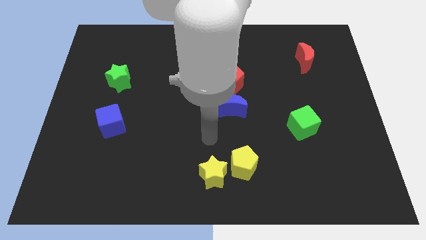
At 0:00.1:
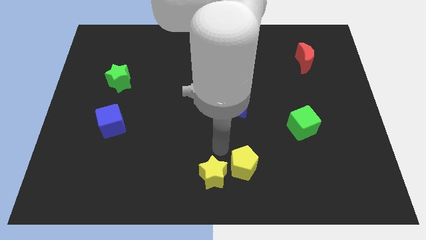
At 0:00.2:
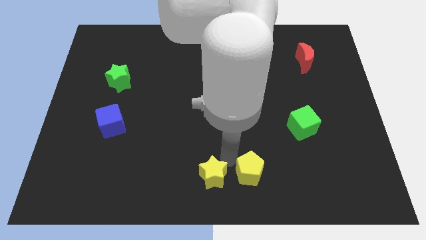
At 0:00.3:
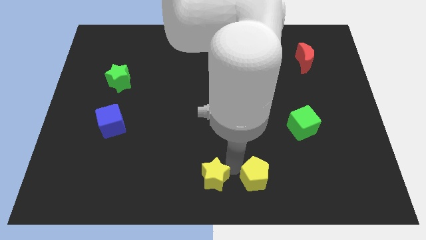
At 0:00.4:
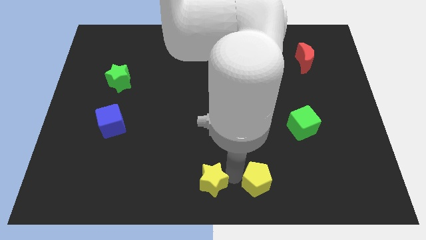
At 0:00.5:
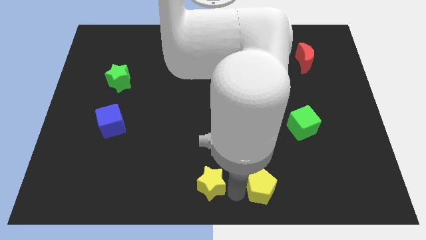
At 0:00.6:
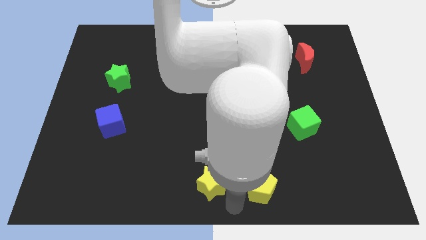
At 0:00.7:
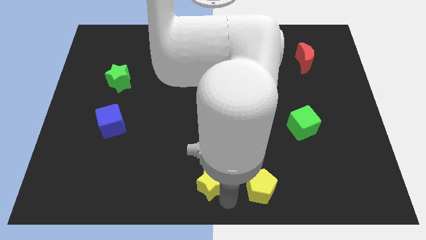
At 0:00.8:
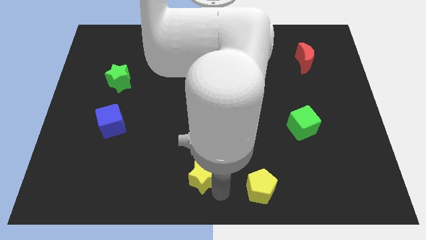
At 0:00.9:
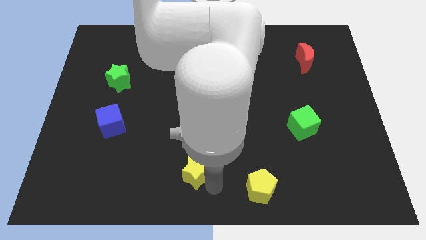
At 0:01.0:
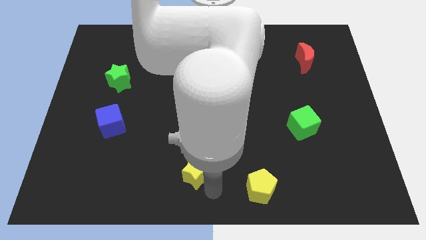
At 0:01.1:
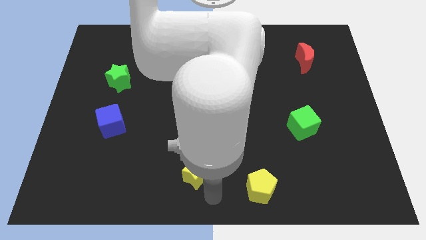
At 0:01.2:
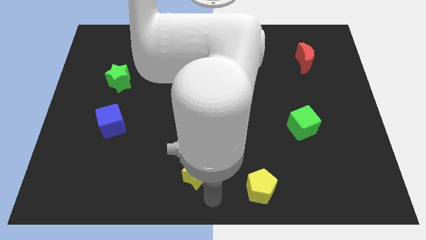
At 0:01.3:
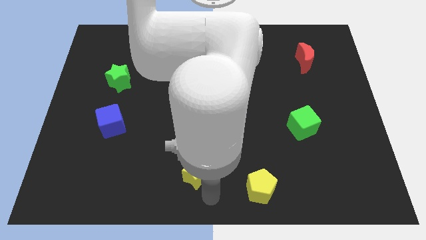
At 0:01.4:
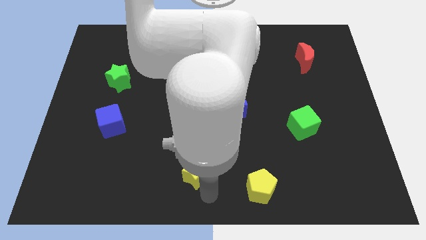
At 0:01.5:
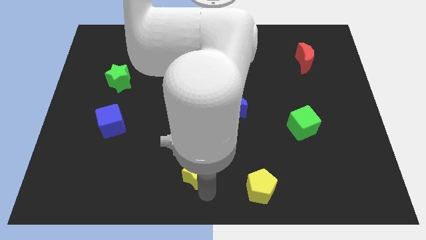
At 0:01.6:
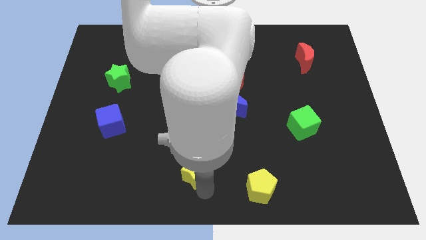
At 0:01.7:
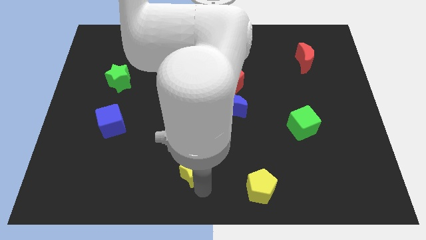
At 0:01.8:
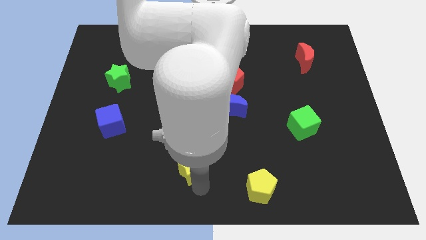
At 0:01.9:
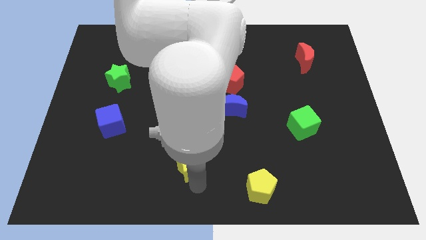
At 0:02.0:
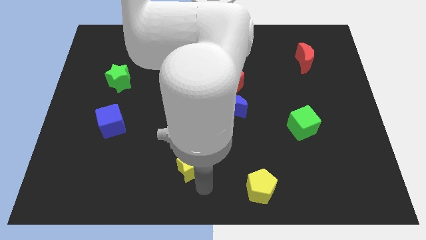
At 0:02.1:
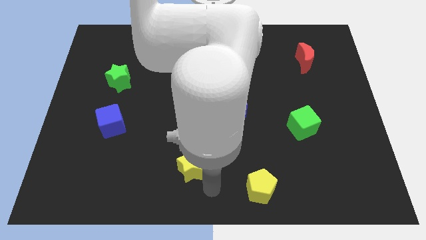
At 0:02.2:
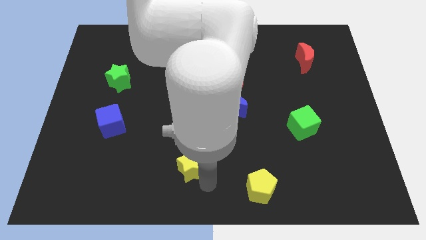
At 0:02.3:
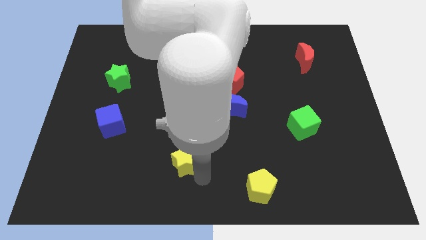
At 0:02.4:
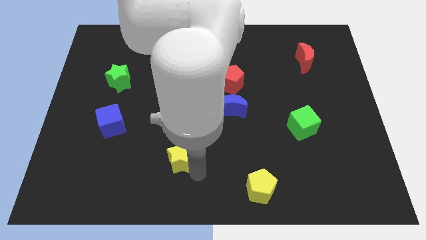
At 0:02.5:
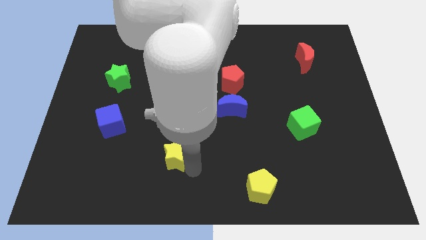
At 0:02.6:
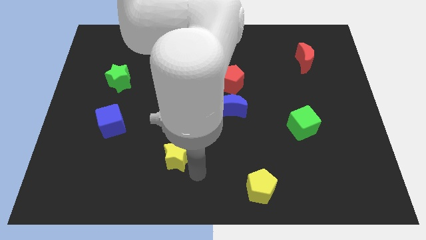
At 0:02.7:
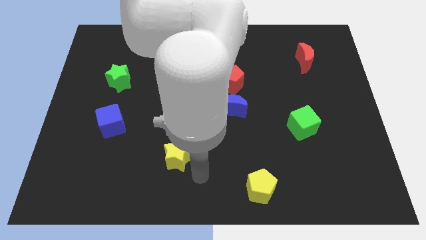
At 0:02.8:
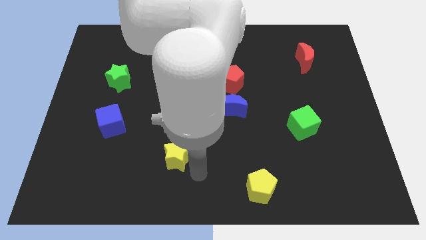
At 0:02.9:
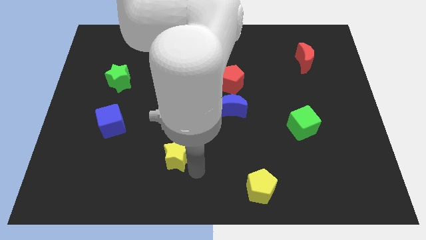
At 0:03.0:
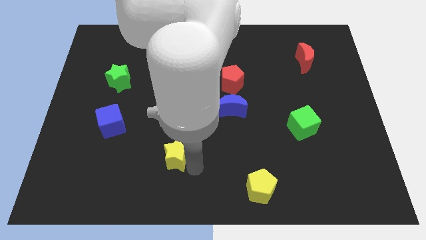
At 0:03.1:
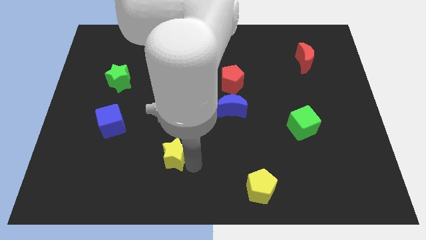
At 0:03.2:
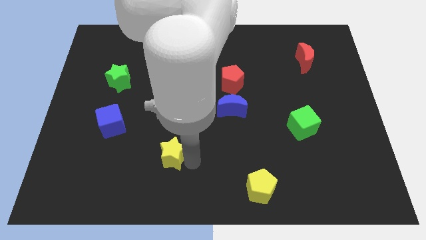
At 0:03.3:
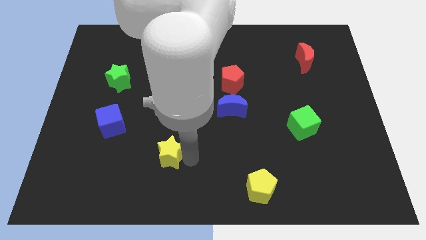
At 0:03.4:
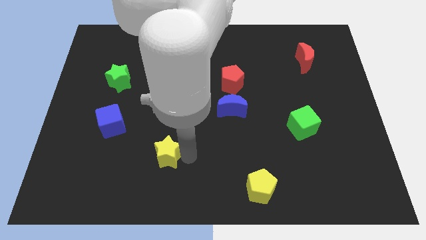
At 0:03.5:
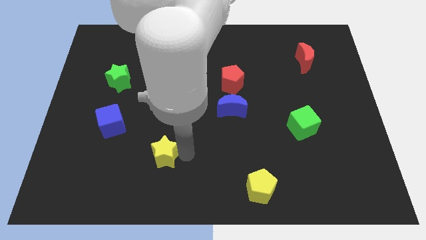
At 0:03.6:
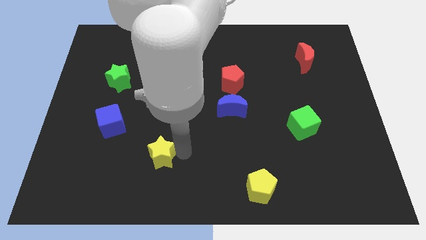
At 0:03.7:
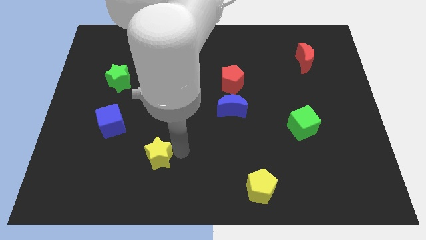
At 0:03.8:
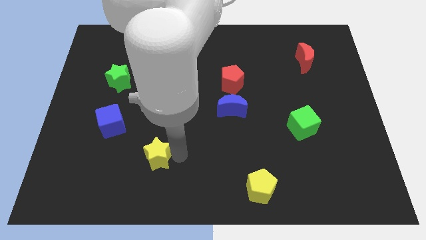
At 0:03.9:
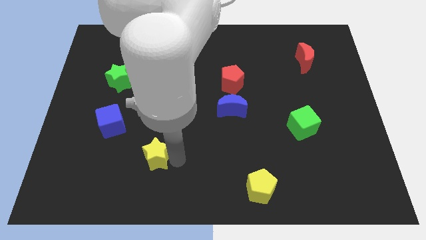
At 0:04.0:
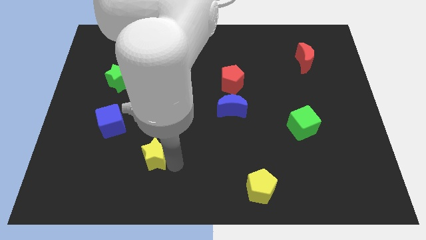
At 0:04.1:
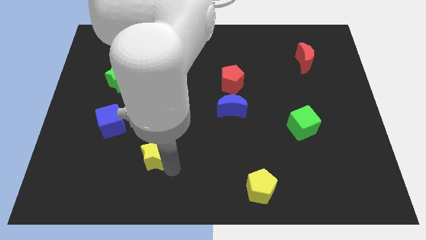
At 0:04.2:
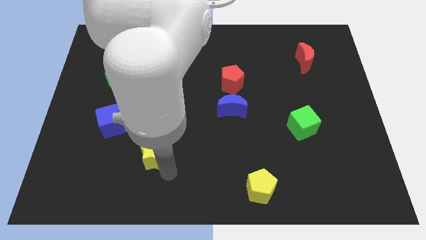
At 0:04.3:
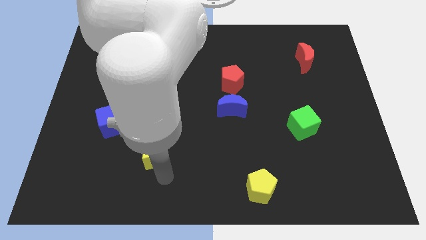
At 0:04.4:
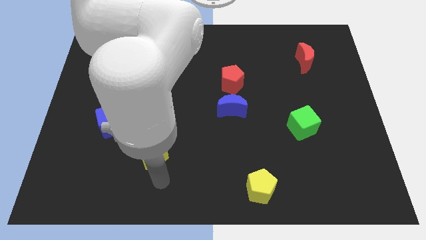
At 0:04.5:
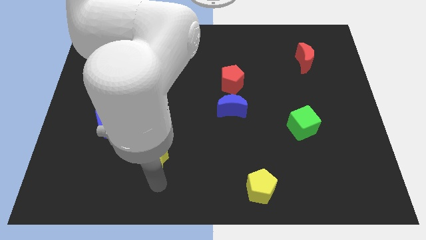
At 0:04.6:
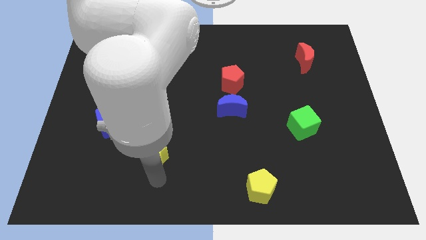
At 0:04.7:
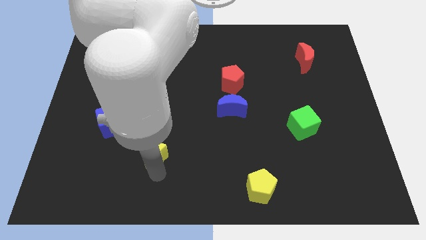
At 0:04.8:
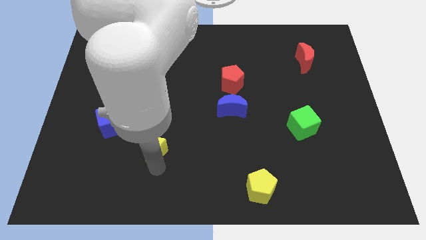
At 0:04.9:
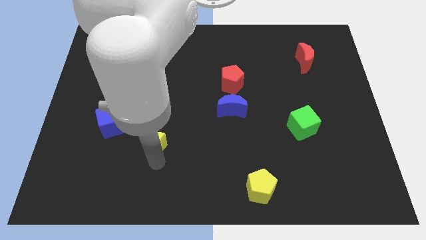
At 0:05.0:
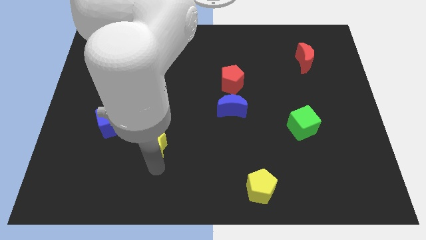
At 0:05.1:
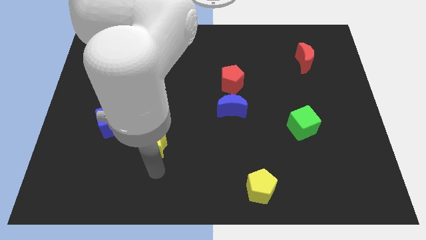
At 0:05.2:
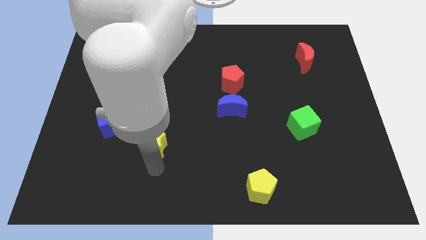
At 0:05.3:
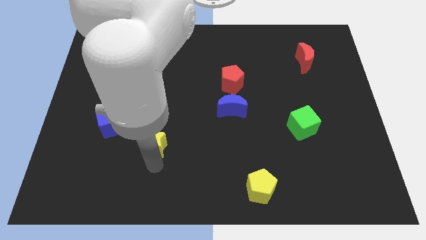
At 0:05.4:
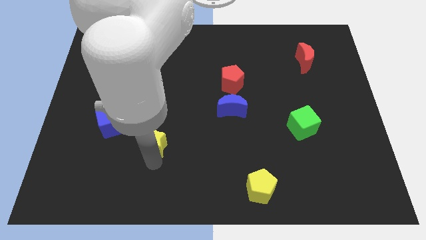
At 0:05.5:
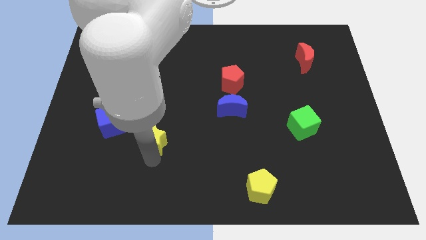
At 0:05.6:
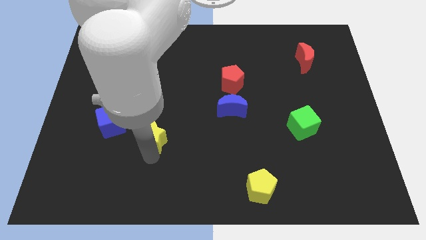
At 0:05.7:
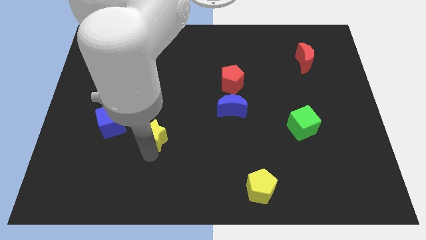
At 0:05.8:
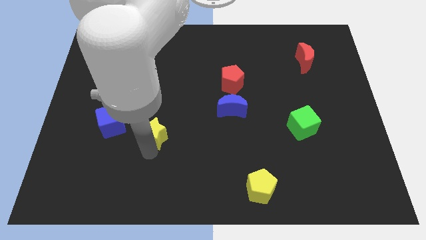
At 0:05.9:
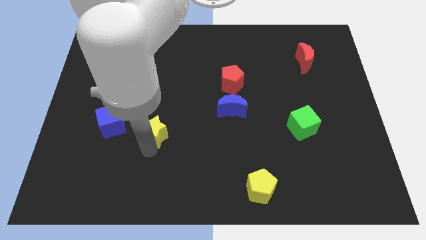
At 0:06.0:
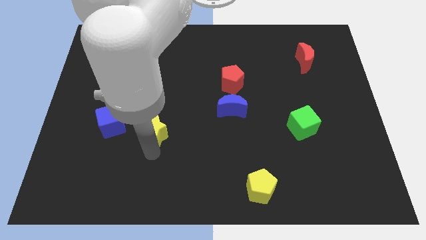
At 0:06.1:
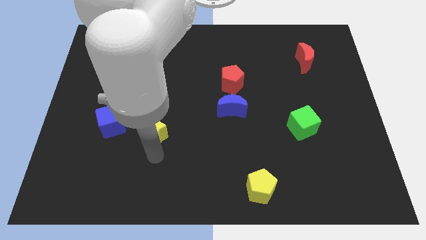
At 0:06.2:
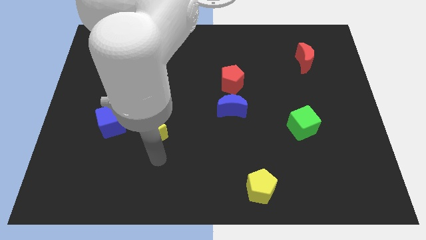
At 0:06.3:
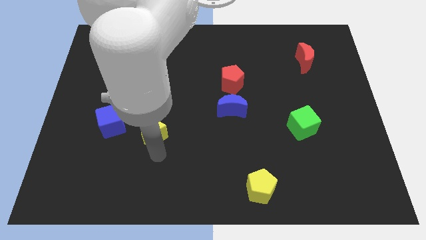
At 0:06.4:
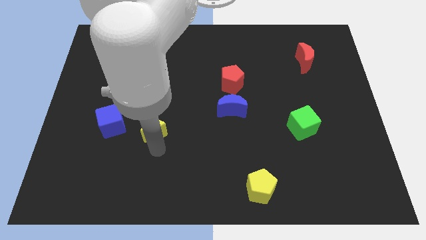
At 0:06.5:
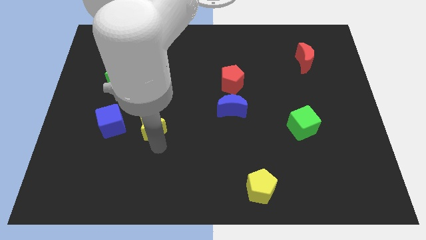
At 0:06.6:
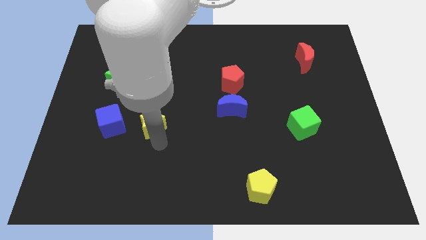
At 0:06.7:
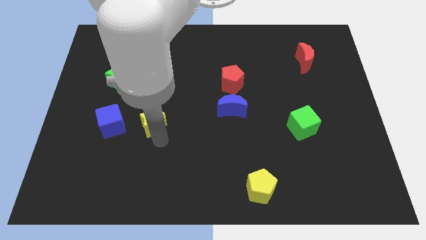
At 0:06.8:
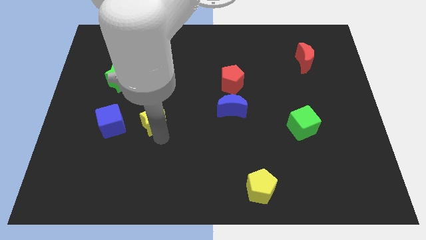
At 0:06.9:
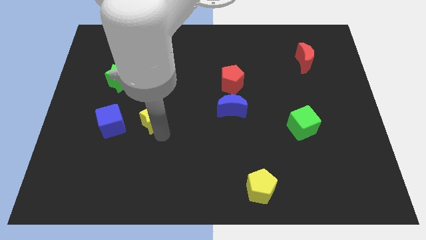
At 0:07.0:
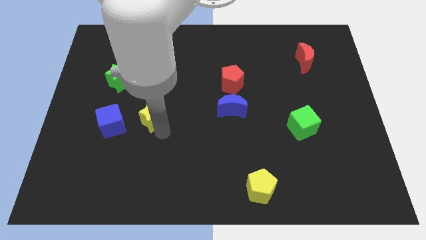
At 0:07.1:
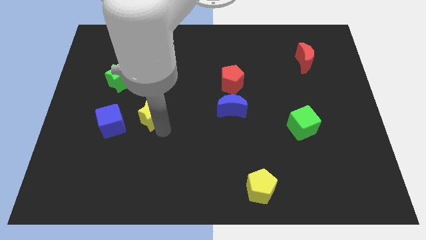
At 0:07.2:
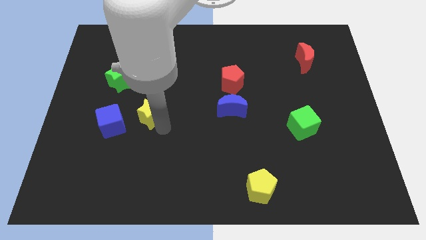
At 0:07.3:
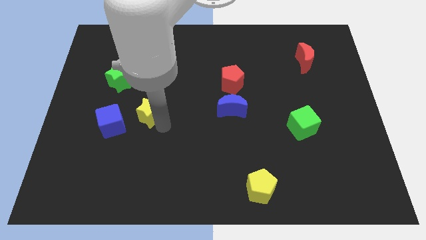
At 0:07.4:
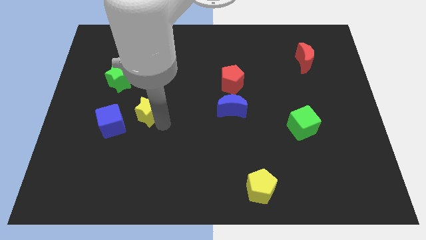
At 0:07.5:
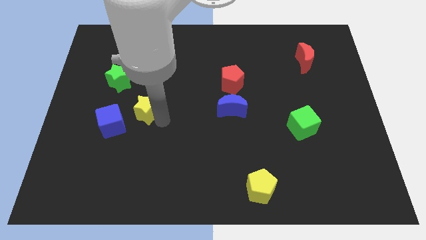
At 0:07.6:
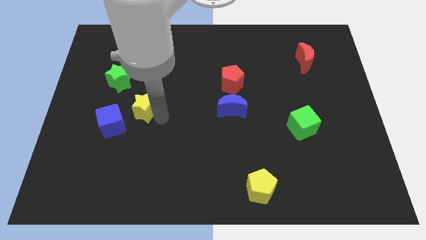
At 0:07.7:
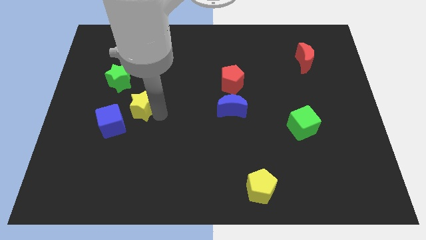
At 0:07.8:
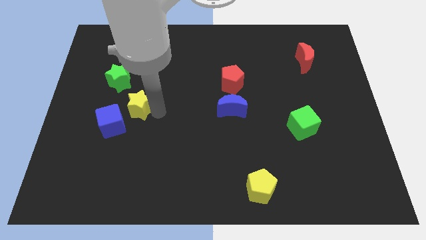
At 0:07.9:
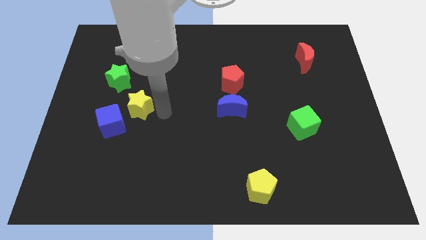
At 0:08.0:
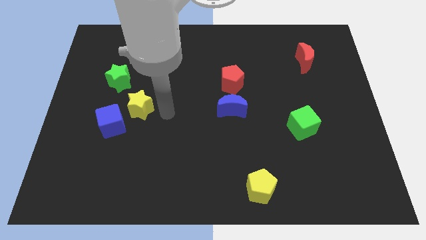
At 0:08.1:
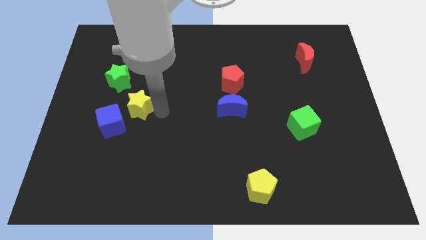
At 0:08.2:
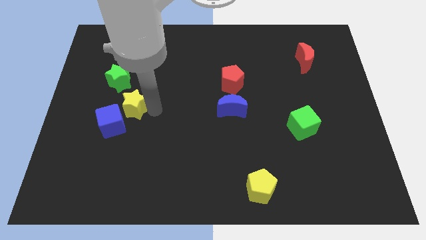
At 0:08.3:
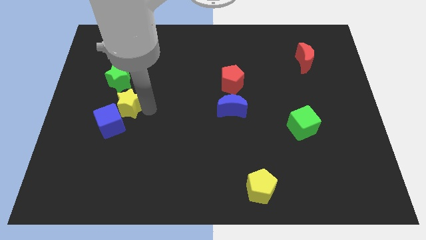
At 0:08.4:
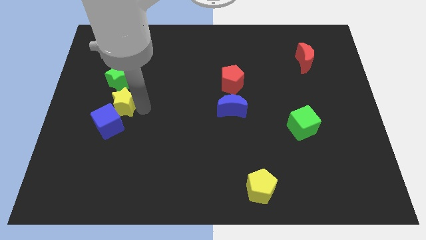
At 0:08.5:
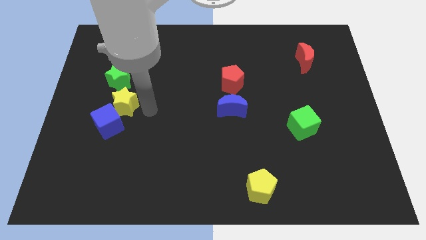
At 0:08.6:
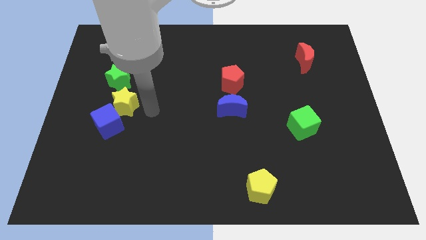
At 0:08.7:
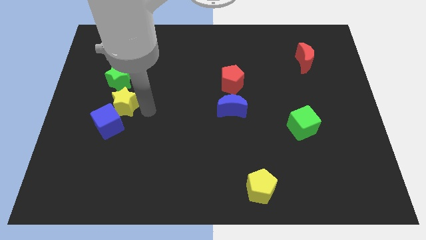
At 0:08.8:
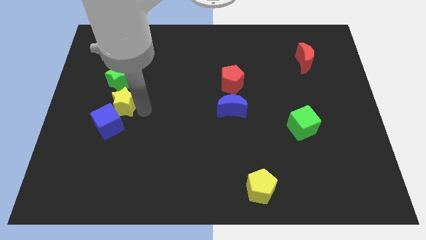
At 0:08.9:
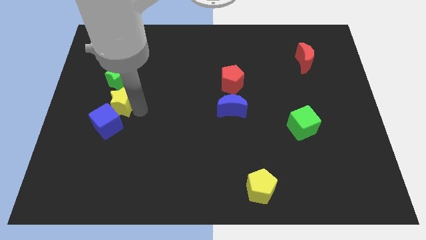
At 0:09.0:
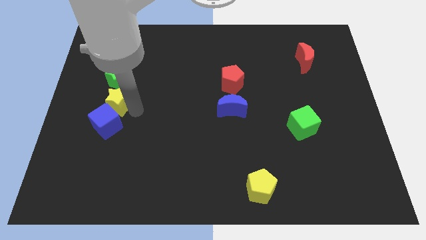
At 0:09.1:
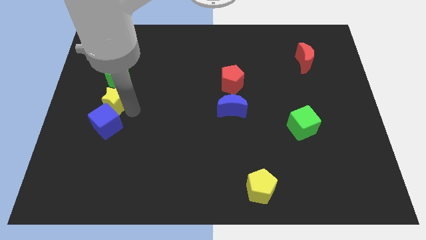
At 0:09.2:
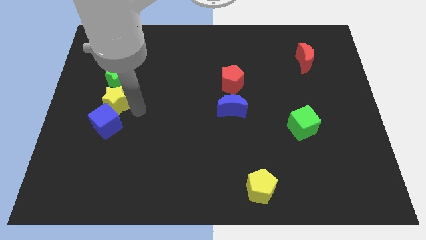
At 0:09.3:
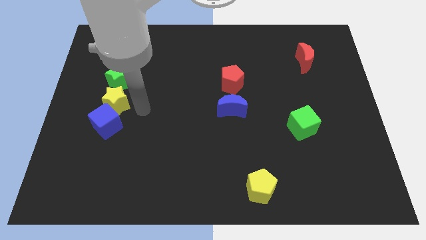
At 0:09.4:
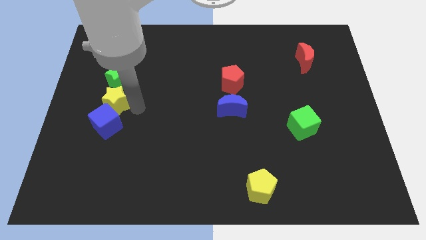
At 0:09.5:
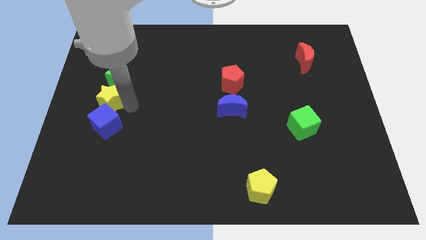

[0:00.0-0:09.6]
put the yellow star to the bottom left side of the green star
